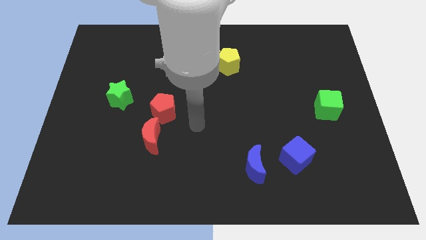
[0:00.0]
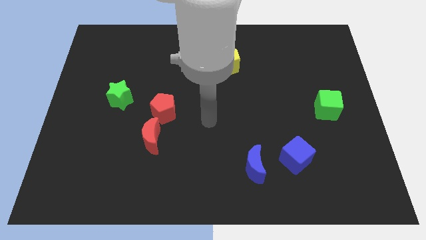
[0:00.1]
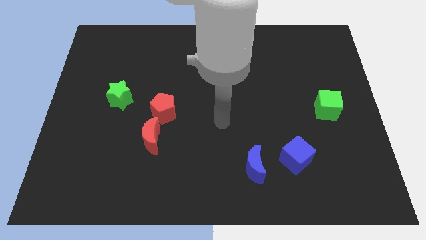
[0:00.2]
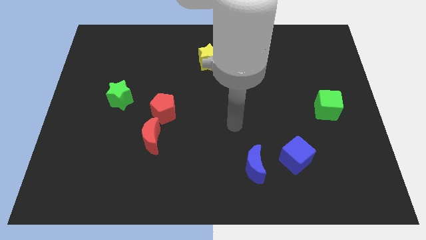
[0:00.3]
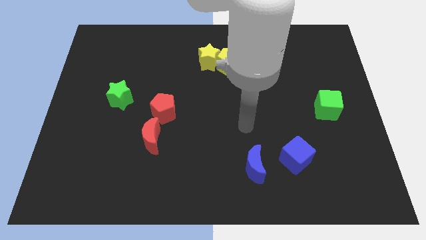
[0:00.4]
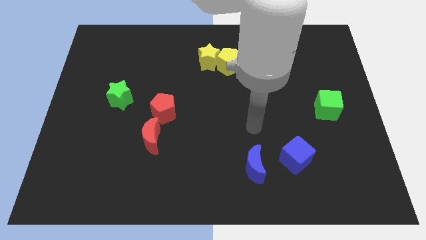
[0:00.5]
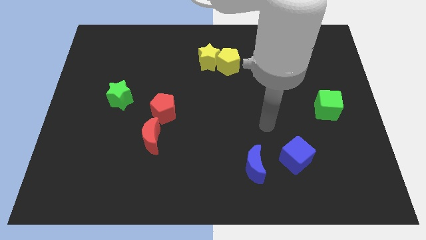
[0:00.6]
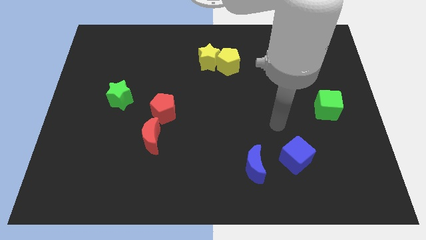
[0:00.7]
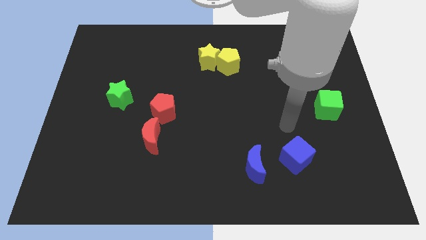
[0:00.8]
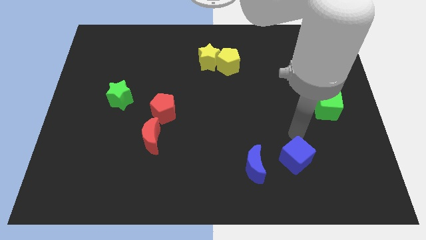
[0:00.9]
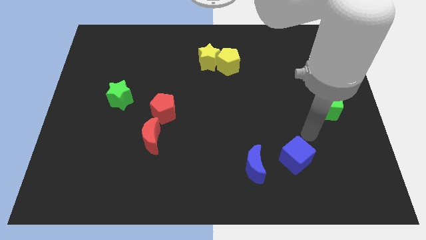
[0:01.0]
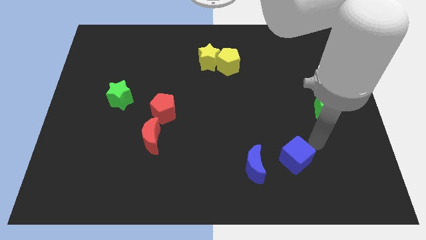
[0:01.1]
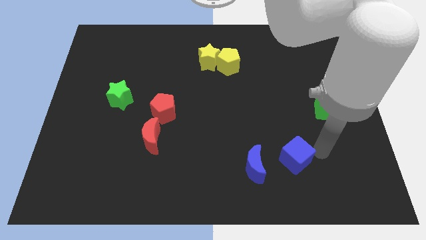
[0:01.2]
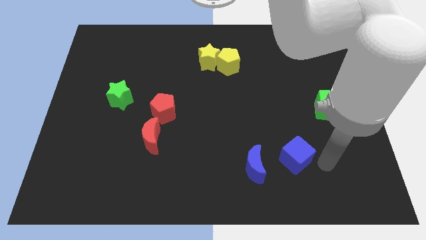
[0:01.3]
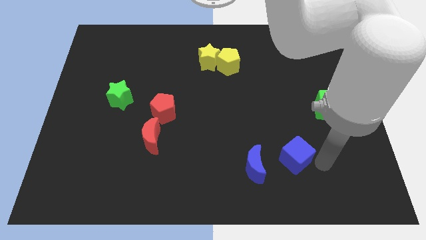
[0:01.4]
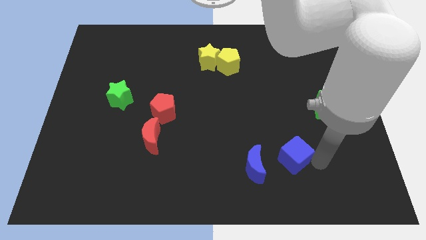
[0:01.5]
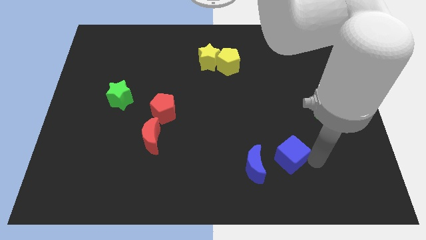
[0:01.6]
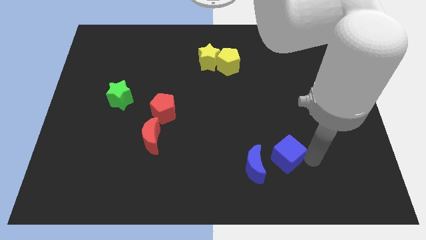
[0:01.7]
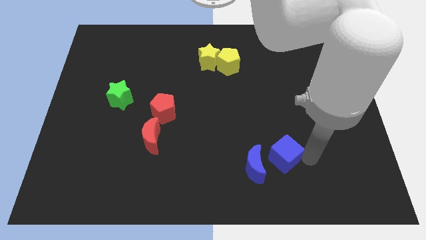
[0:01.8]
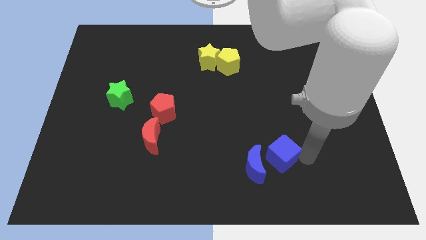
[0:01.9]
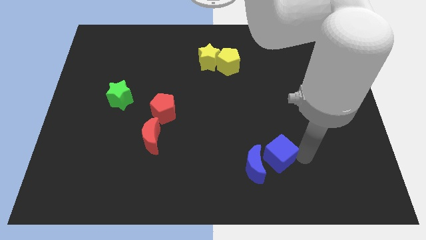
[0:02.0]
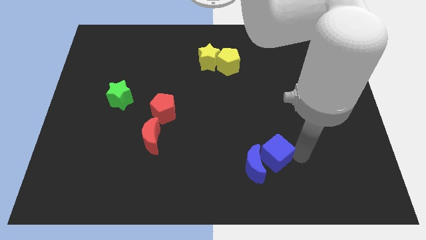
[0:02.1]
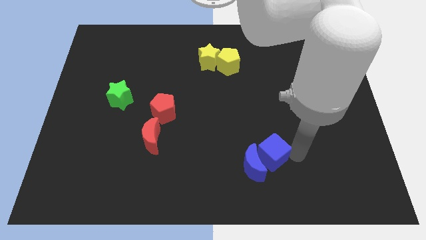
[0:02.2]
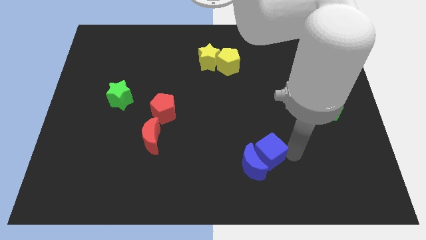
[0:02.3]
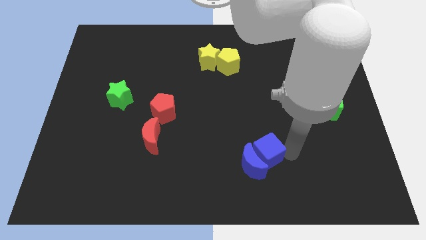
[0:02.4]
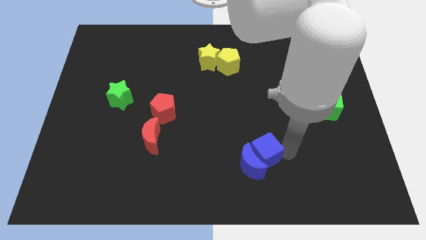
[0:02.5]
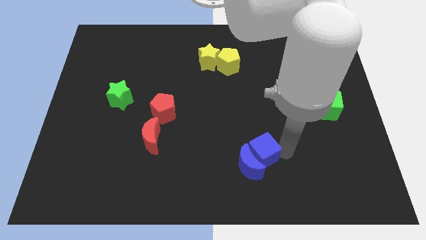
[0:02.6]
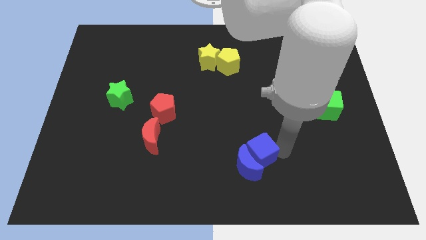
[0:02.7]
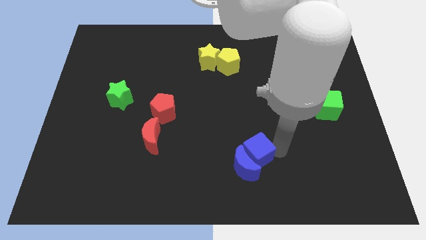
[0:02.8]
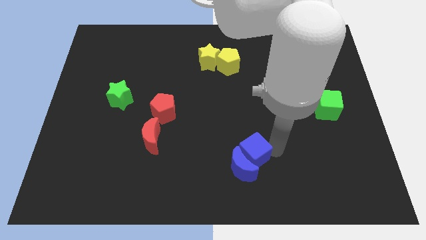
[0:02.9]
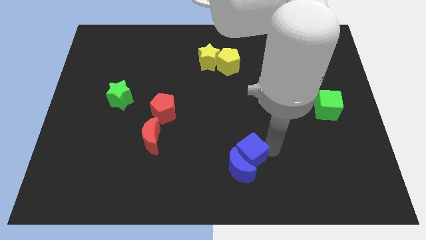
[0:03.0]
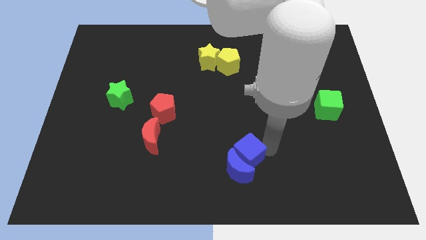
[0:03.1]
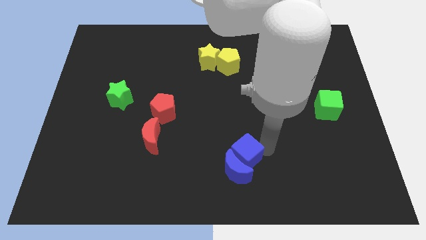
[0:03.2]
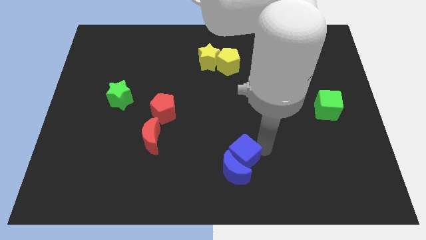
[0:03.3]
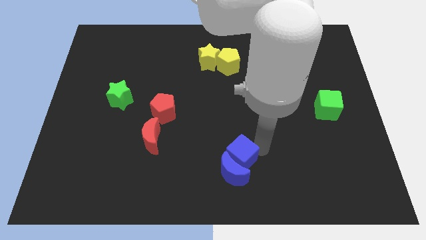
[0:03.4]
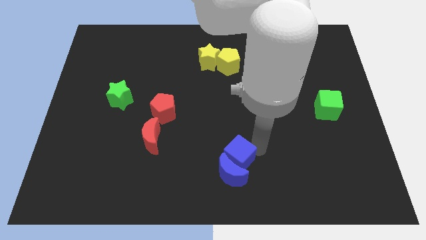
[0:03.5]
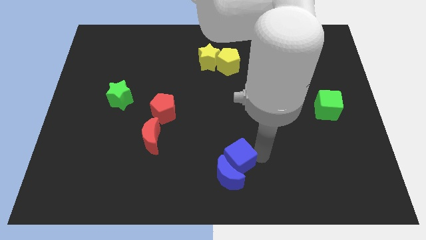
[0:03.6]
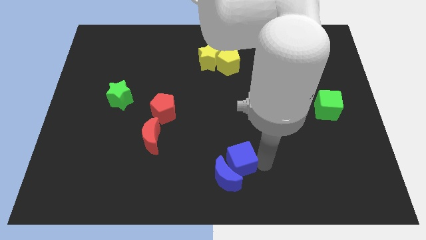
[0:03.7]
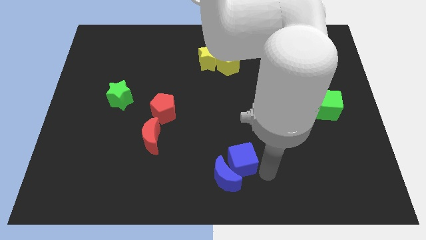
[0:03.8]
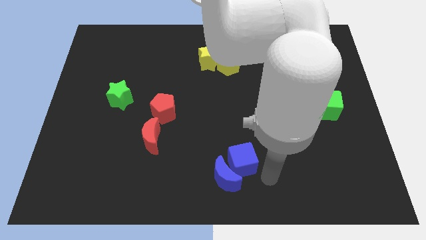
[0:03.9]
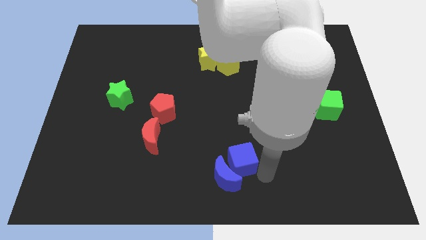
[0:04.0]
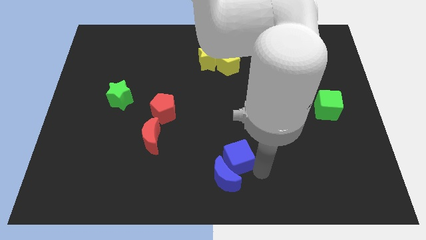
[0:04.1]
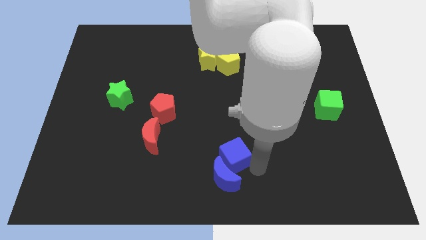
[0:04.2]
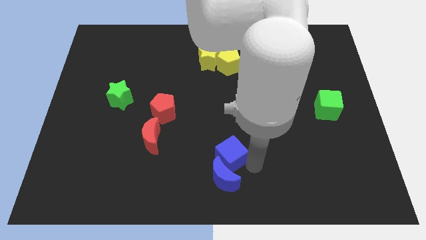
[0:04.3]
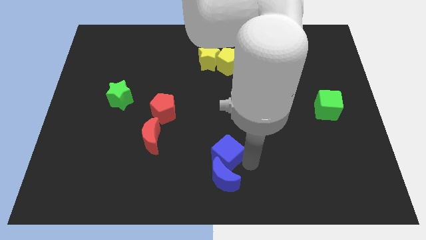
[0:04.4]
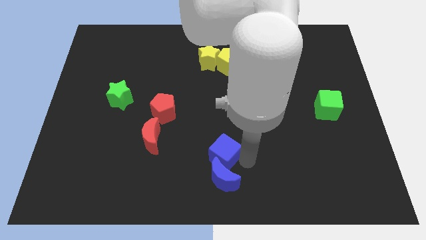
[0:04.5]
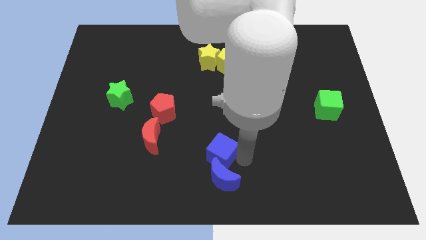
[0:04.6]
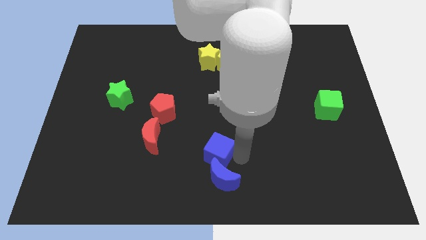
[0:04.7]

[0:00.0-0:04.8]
push the blue cube right of the red moon

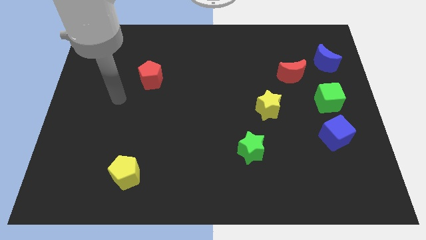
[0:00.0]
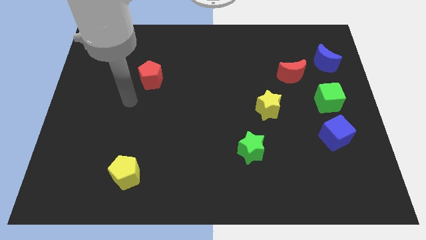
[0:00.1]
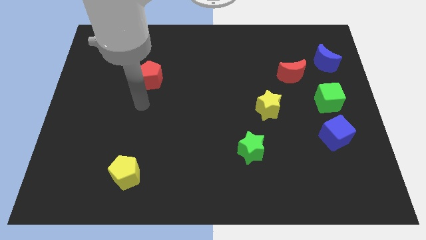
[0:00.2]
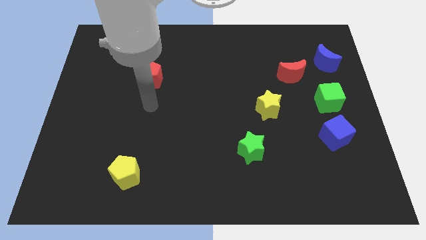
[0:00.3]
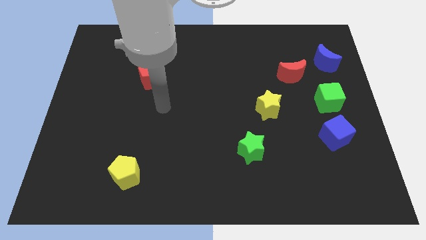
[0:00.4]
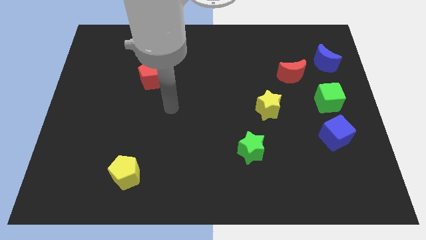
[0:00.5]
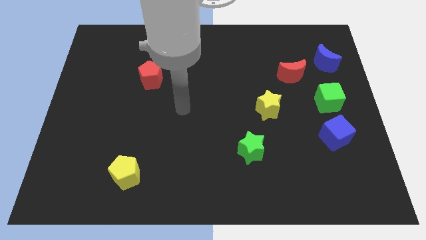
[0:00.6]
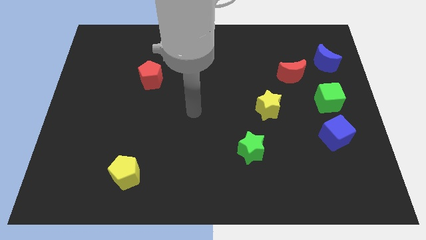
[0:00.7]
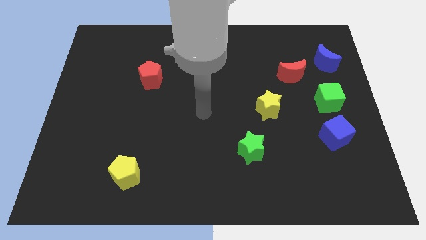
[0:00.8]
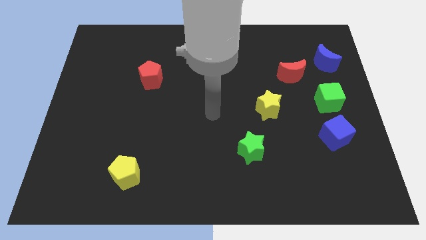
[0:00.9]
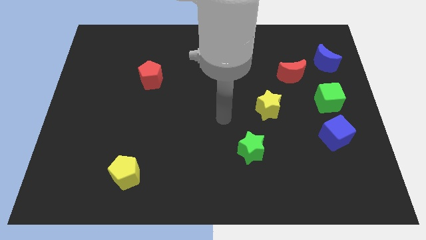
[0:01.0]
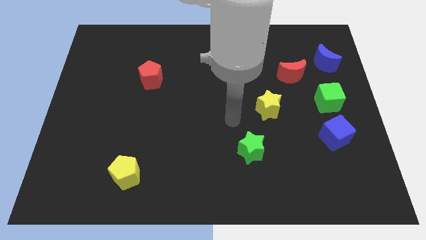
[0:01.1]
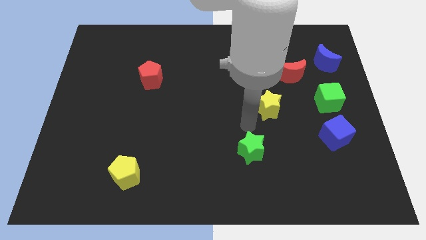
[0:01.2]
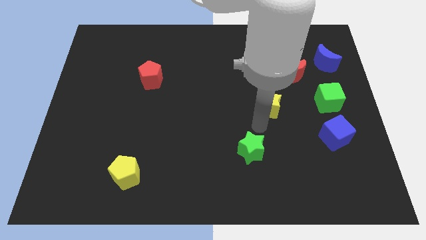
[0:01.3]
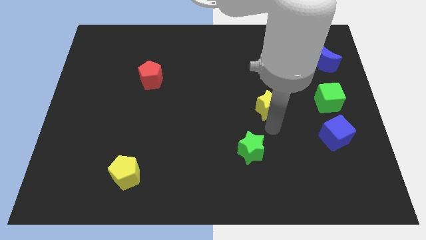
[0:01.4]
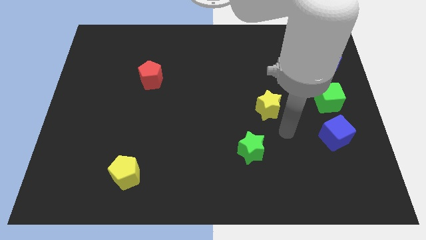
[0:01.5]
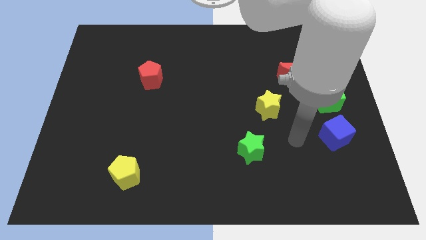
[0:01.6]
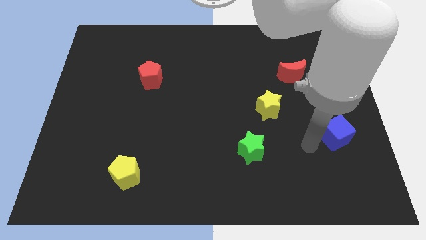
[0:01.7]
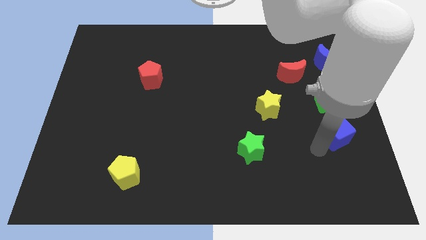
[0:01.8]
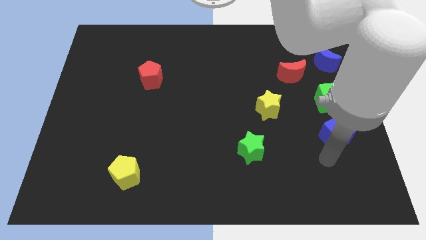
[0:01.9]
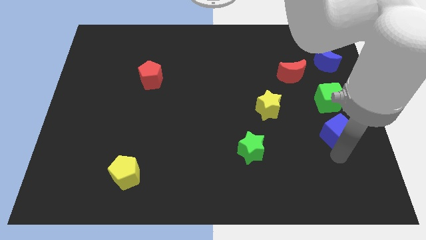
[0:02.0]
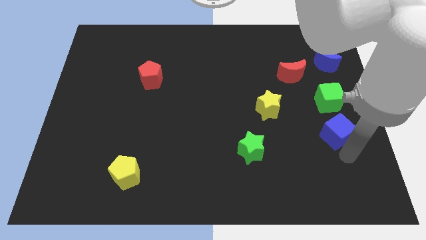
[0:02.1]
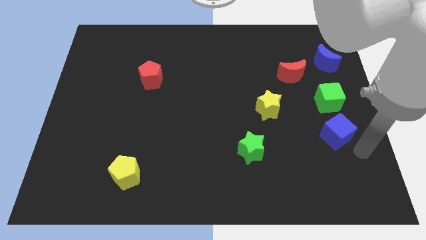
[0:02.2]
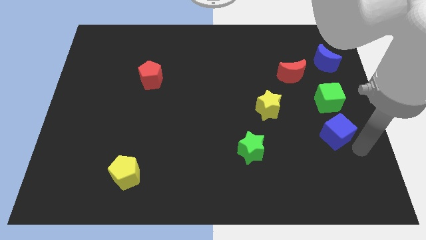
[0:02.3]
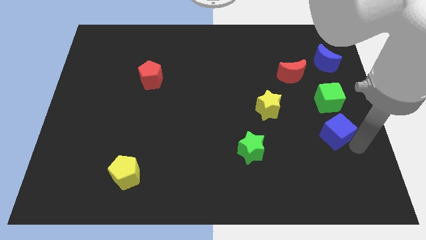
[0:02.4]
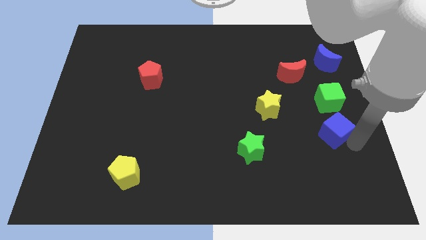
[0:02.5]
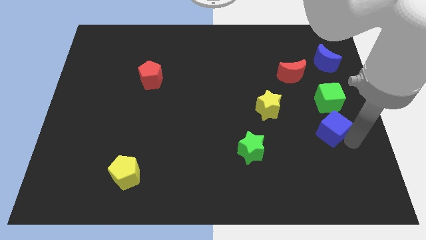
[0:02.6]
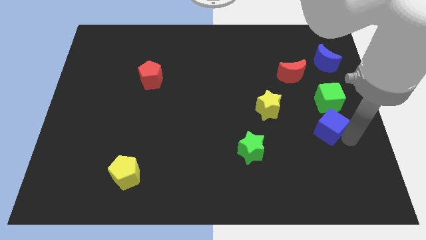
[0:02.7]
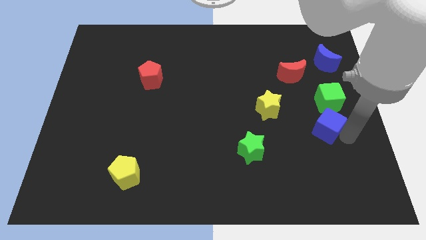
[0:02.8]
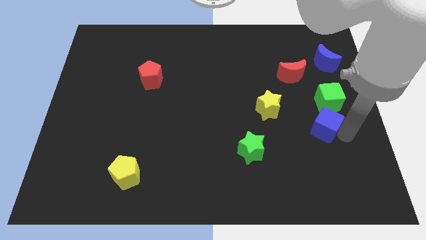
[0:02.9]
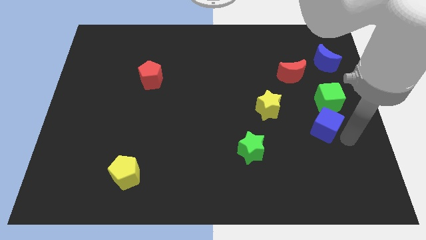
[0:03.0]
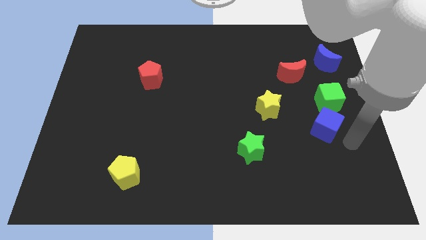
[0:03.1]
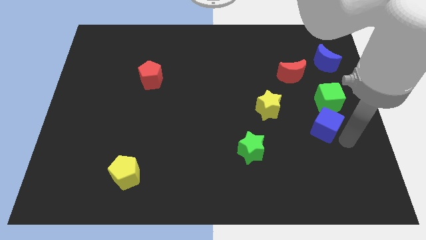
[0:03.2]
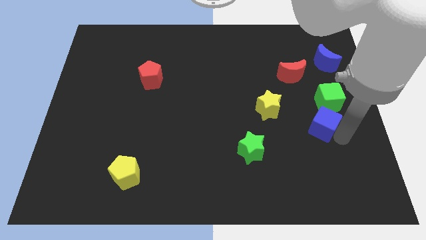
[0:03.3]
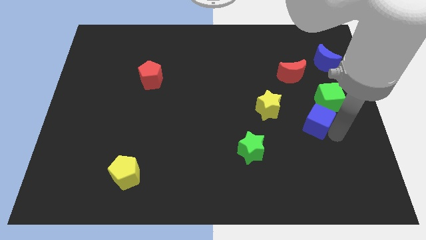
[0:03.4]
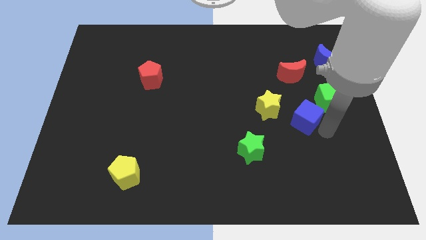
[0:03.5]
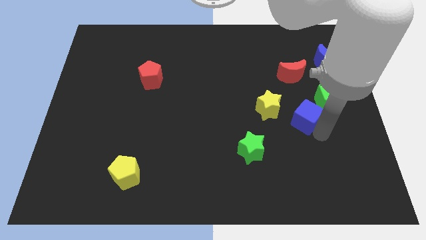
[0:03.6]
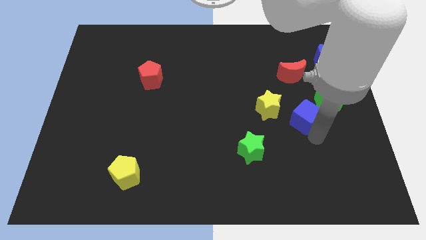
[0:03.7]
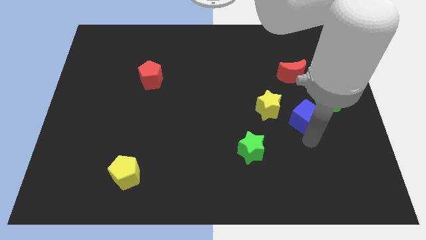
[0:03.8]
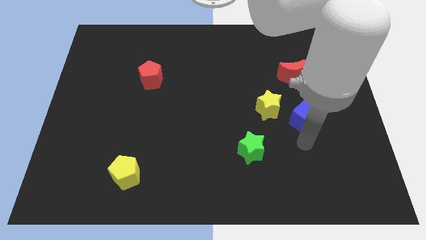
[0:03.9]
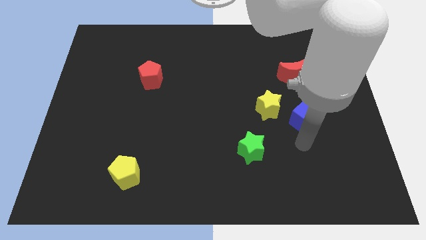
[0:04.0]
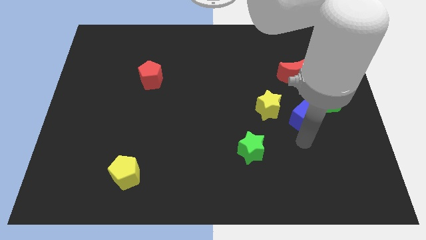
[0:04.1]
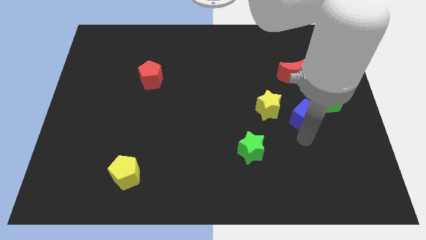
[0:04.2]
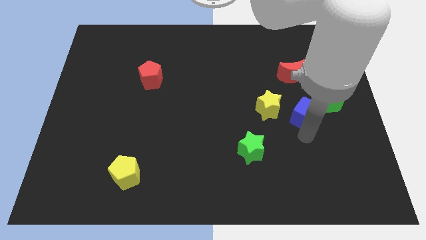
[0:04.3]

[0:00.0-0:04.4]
push the blue cube to the left side of the green cube
